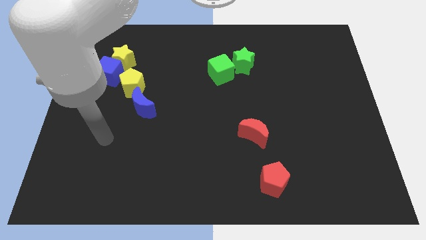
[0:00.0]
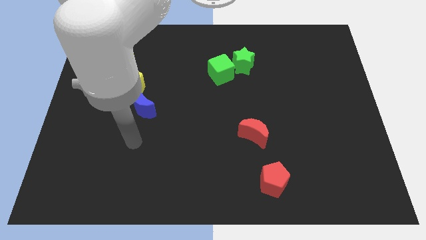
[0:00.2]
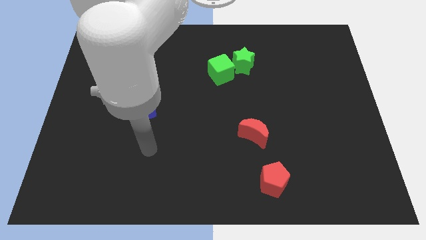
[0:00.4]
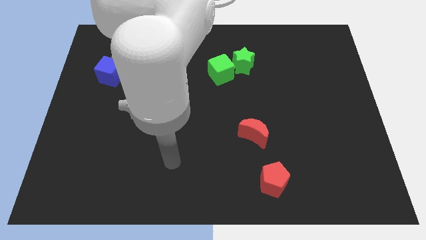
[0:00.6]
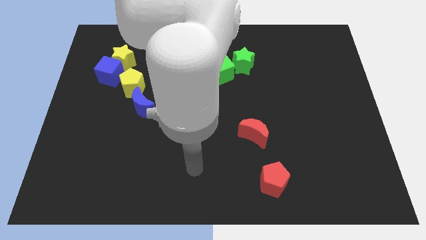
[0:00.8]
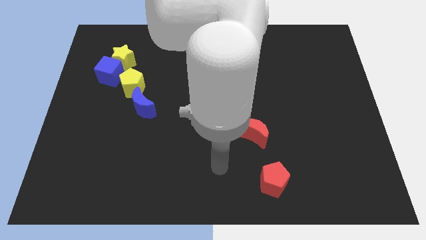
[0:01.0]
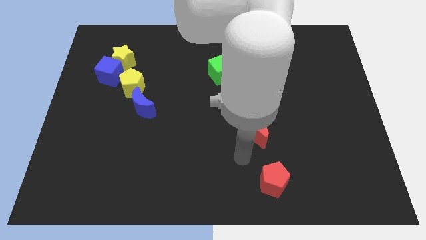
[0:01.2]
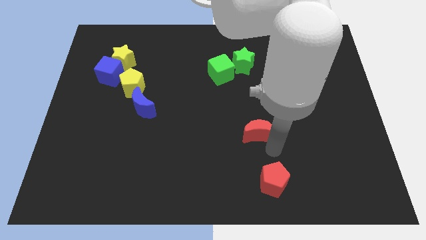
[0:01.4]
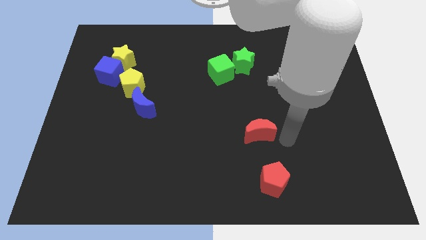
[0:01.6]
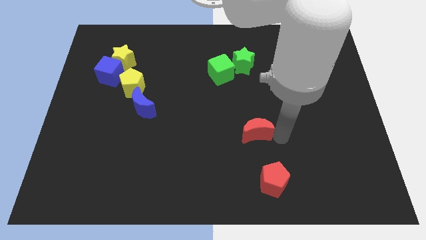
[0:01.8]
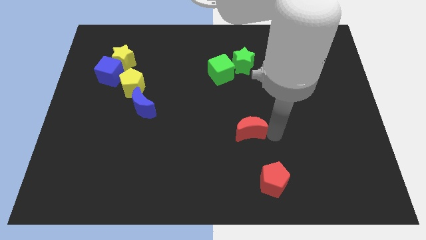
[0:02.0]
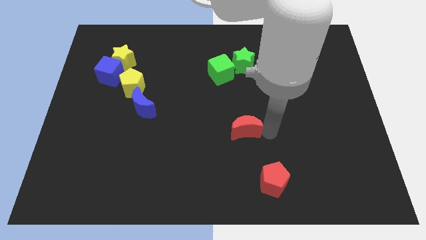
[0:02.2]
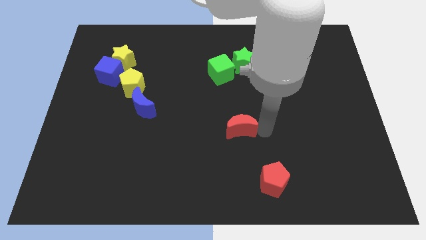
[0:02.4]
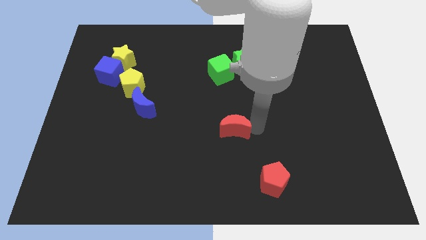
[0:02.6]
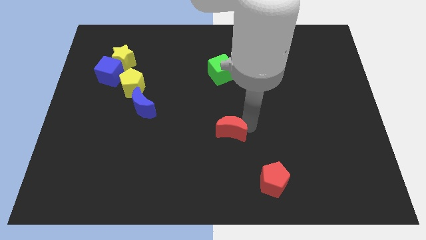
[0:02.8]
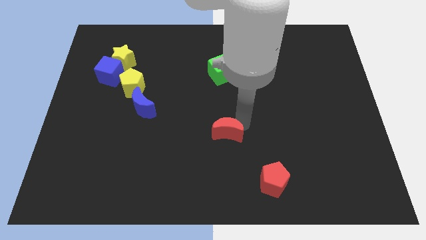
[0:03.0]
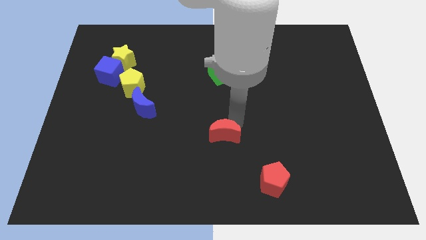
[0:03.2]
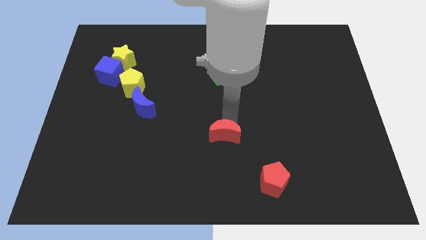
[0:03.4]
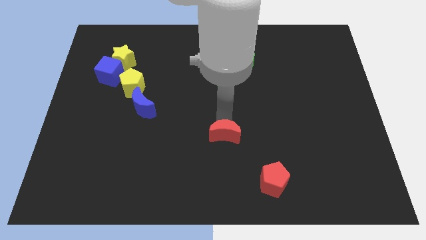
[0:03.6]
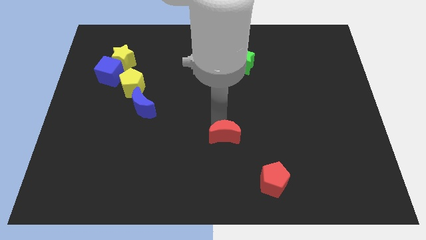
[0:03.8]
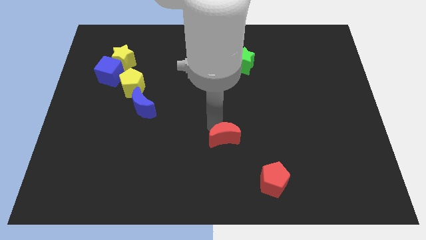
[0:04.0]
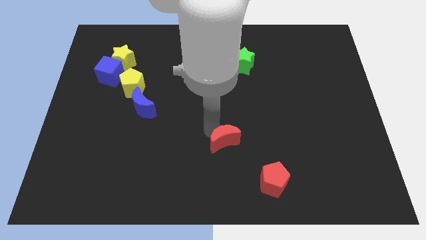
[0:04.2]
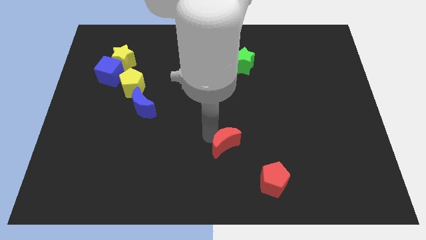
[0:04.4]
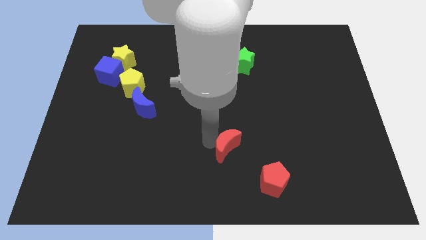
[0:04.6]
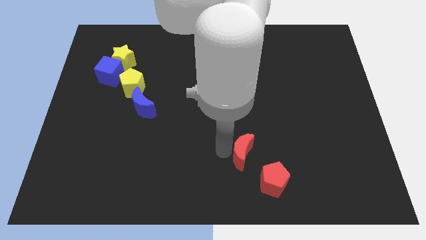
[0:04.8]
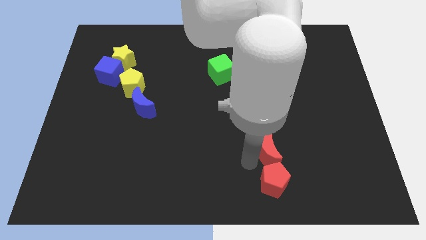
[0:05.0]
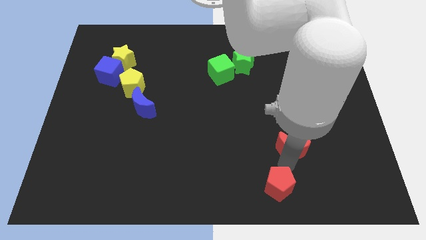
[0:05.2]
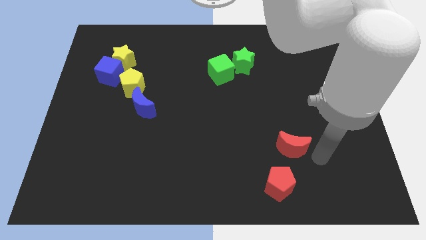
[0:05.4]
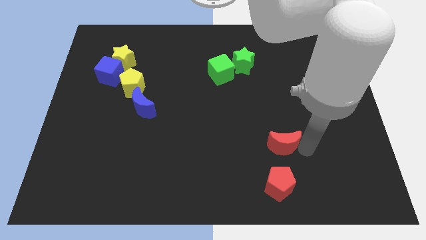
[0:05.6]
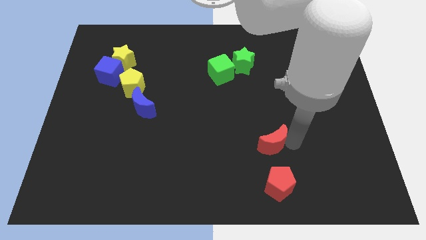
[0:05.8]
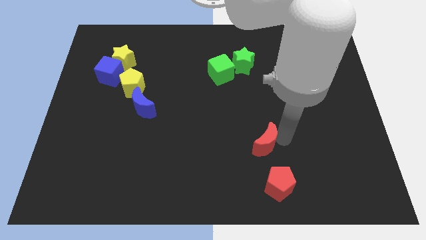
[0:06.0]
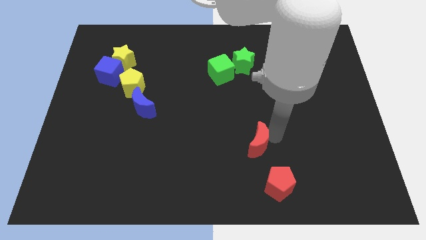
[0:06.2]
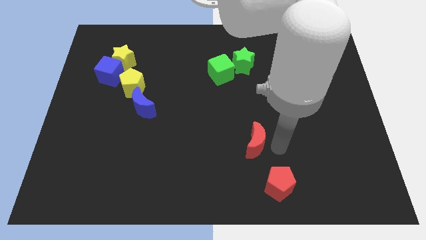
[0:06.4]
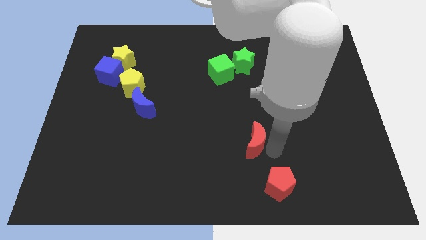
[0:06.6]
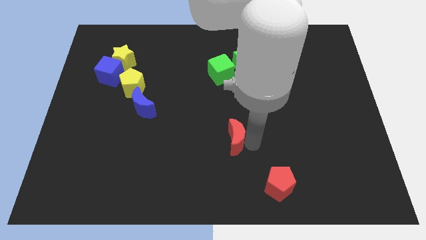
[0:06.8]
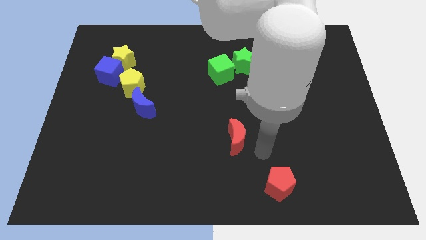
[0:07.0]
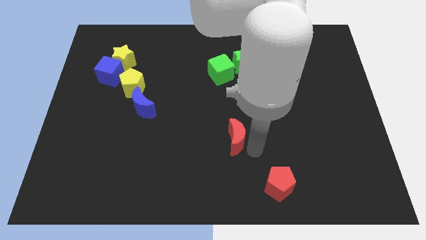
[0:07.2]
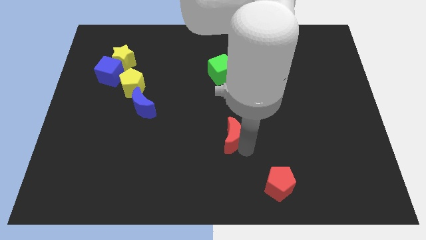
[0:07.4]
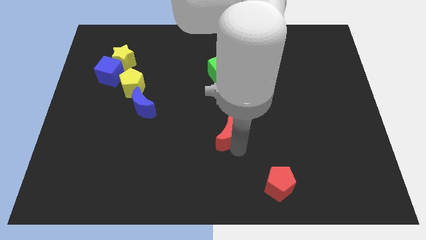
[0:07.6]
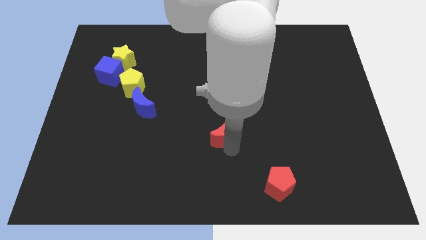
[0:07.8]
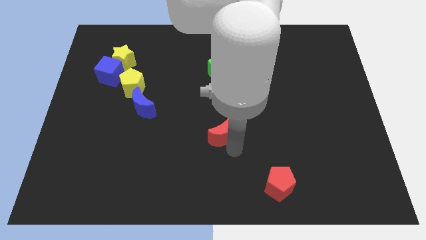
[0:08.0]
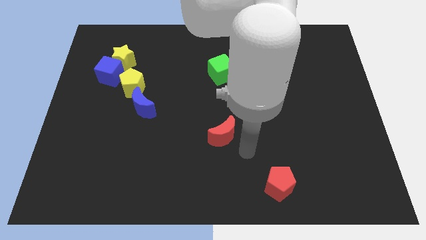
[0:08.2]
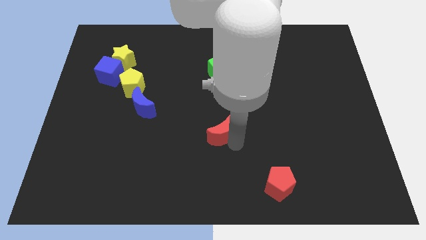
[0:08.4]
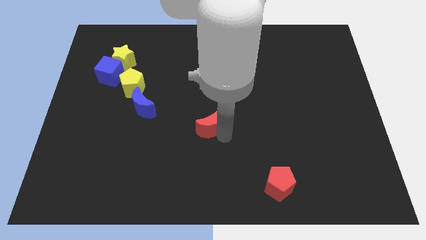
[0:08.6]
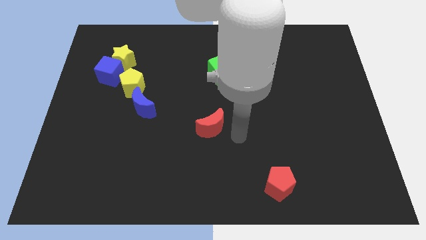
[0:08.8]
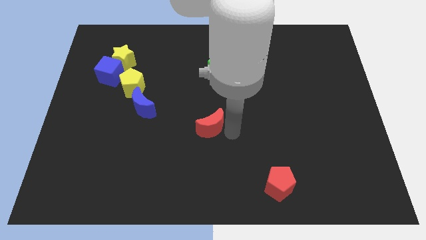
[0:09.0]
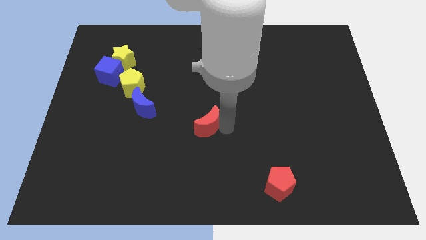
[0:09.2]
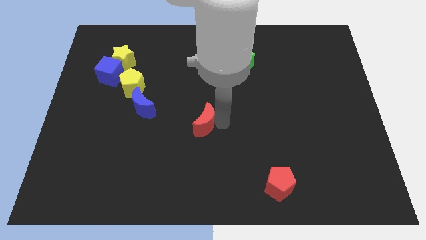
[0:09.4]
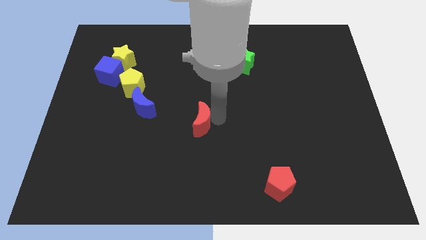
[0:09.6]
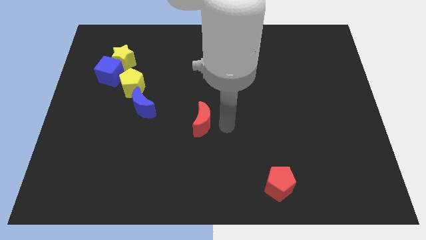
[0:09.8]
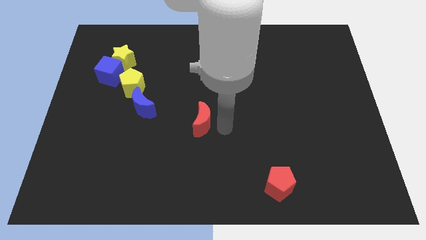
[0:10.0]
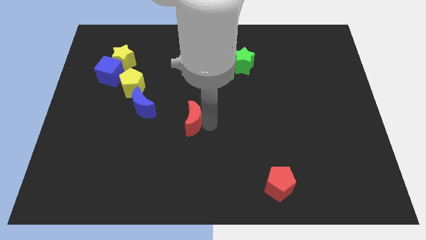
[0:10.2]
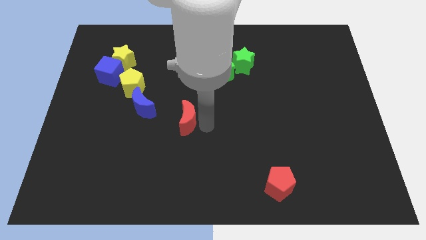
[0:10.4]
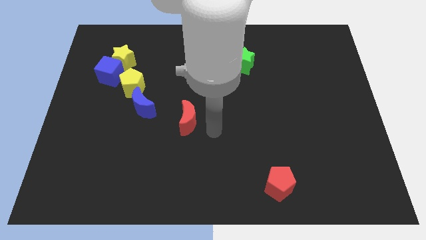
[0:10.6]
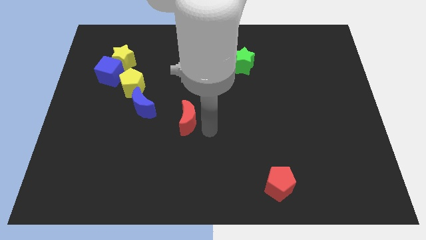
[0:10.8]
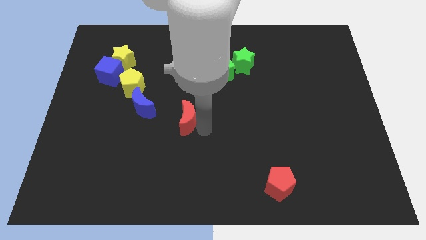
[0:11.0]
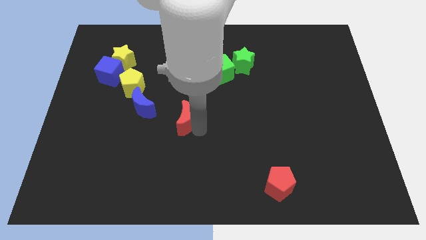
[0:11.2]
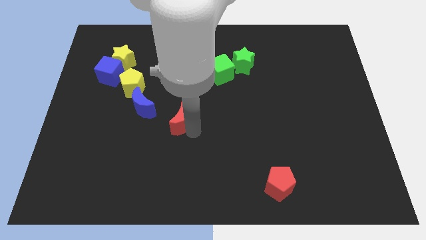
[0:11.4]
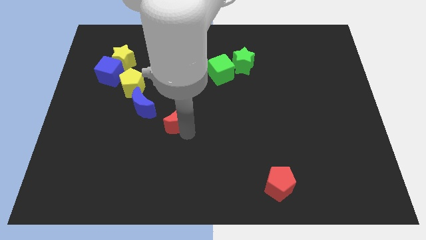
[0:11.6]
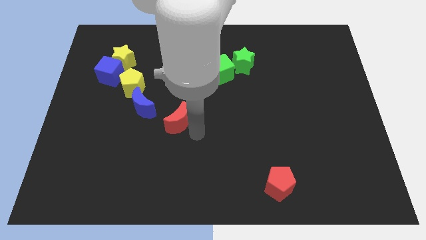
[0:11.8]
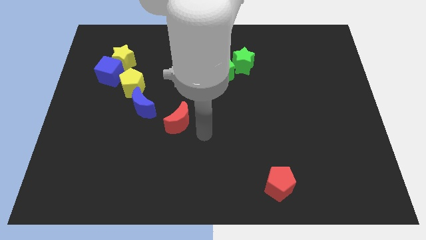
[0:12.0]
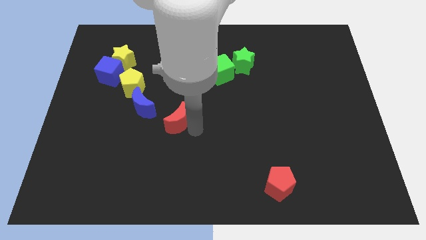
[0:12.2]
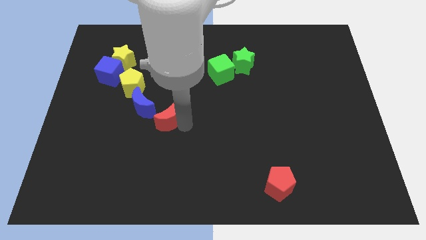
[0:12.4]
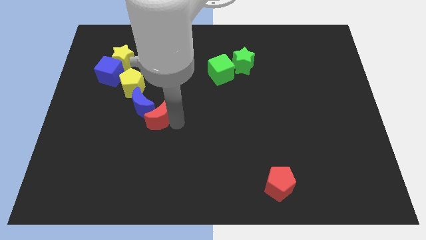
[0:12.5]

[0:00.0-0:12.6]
move the red moon next to the blue moon

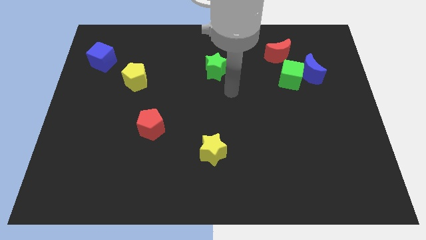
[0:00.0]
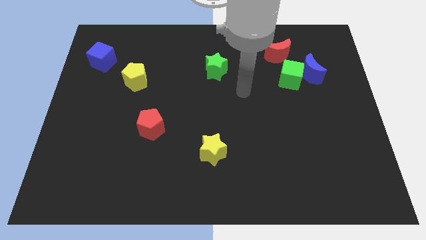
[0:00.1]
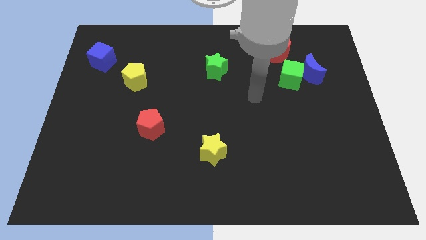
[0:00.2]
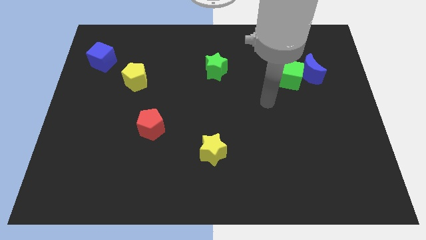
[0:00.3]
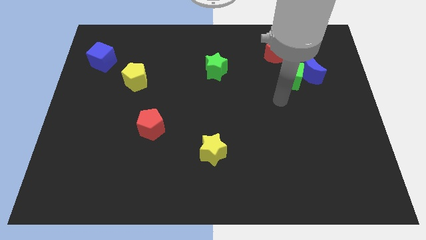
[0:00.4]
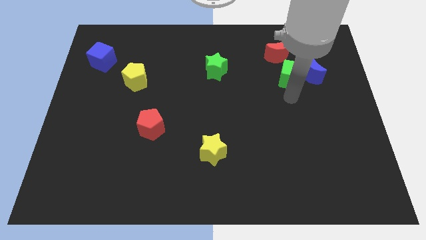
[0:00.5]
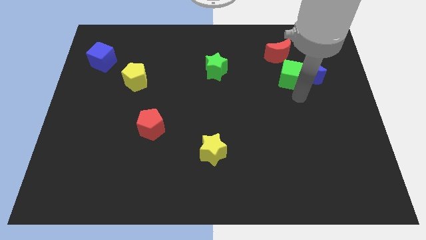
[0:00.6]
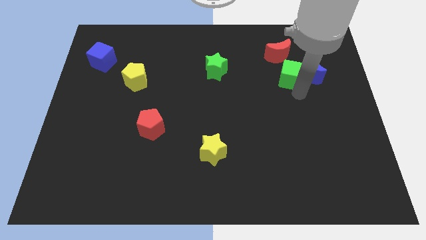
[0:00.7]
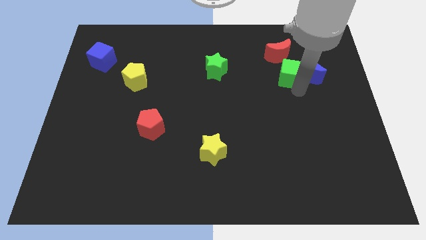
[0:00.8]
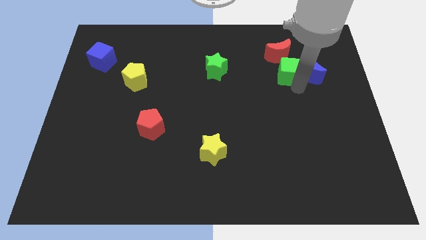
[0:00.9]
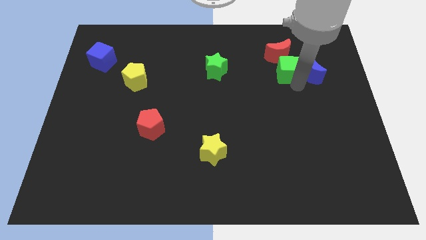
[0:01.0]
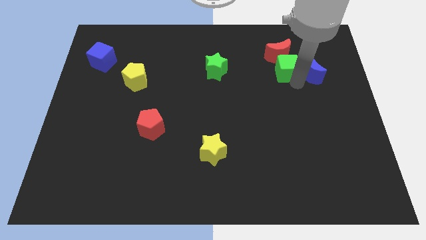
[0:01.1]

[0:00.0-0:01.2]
put the green cube close to the red moon
